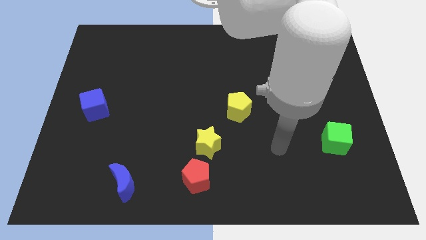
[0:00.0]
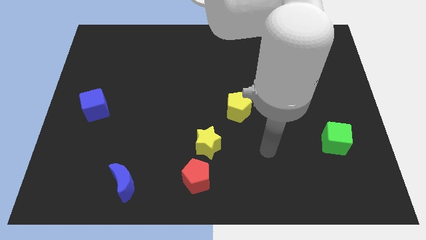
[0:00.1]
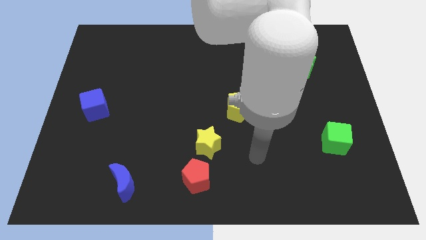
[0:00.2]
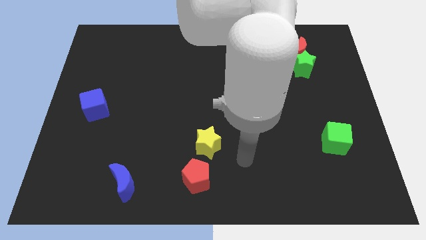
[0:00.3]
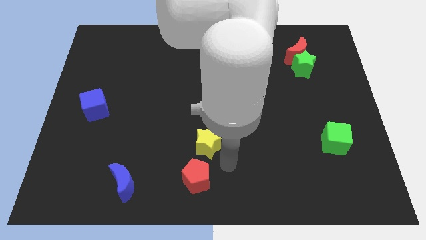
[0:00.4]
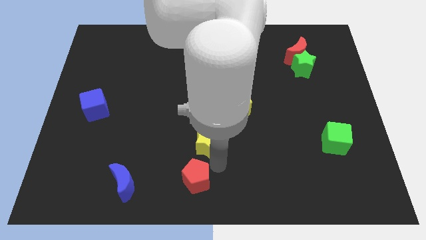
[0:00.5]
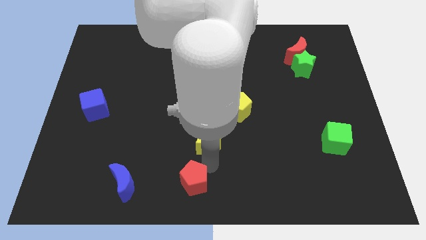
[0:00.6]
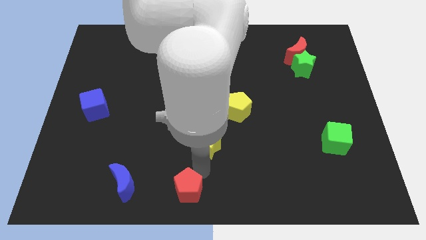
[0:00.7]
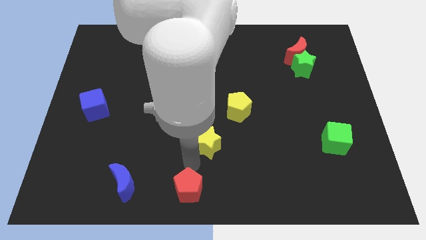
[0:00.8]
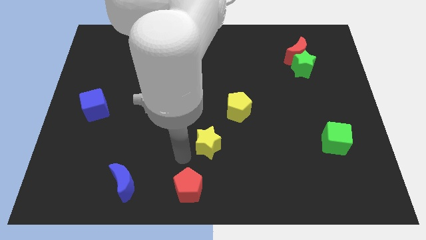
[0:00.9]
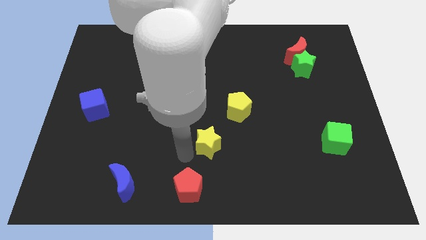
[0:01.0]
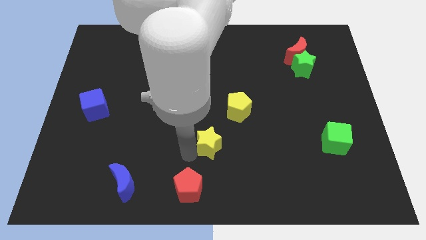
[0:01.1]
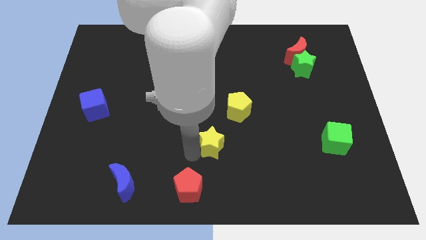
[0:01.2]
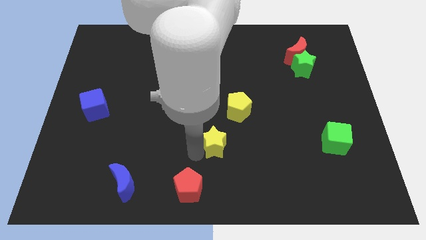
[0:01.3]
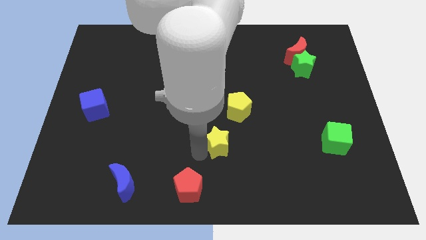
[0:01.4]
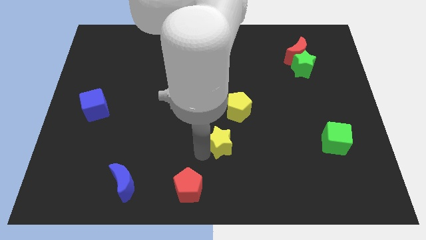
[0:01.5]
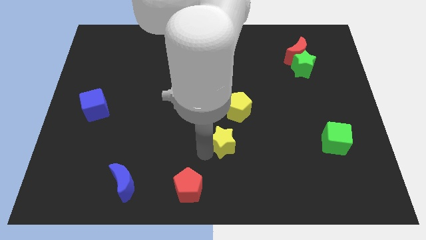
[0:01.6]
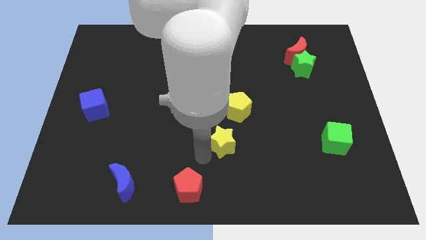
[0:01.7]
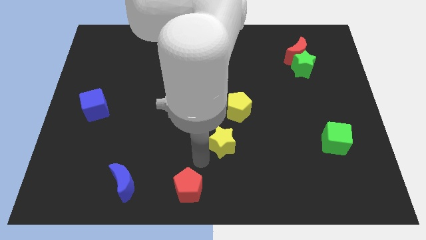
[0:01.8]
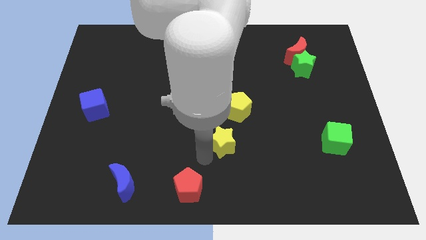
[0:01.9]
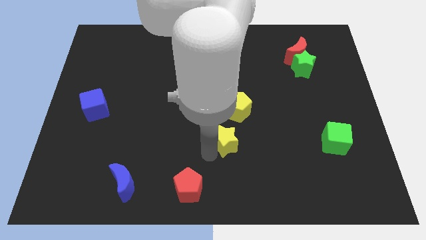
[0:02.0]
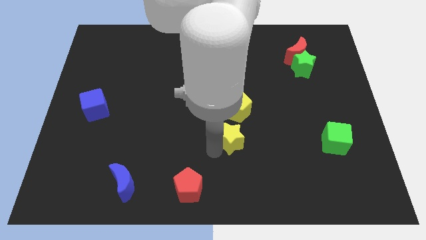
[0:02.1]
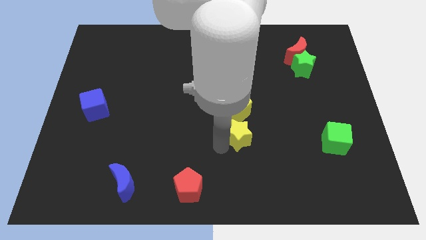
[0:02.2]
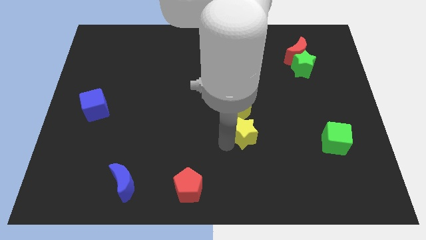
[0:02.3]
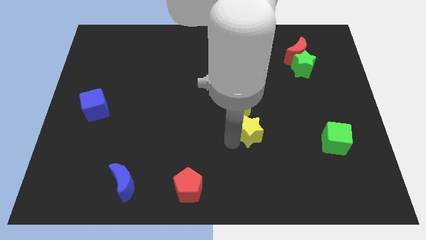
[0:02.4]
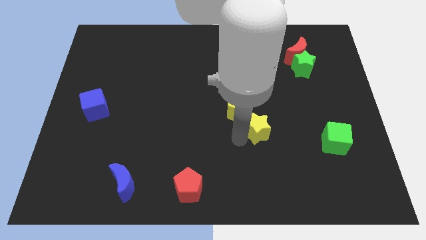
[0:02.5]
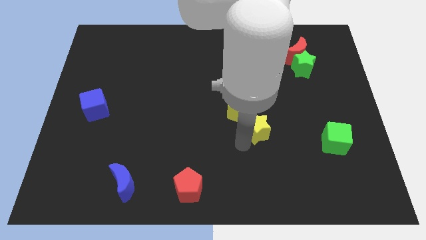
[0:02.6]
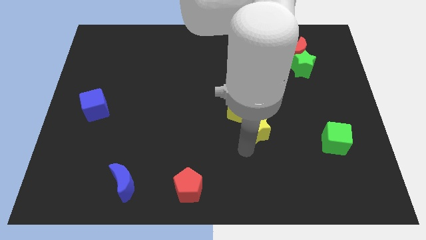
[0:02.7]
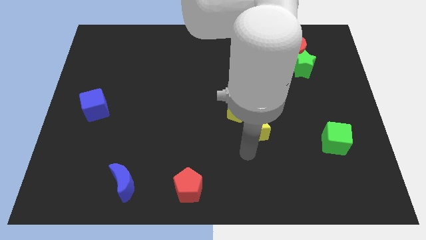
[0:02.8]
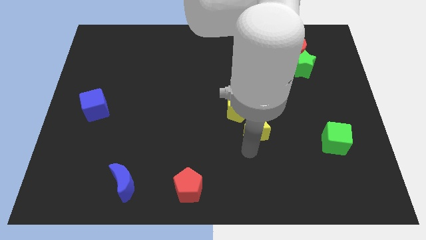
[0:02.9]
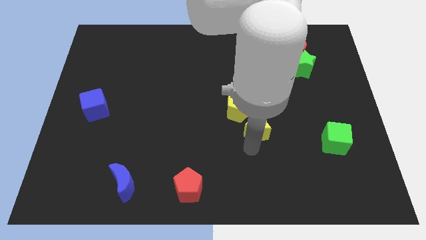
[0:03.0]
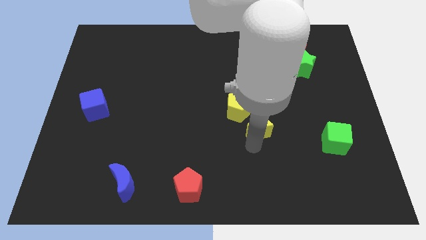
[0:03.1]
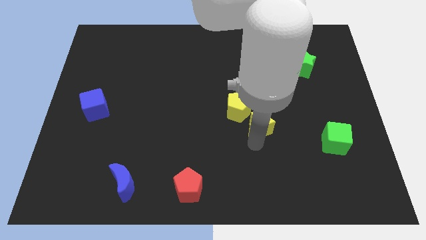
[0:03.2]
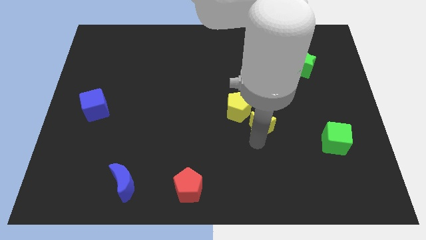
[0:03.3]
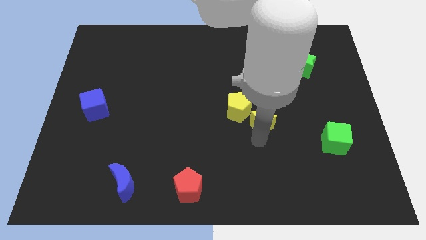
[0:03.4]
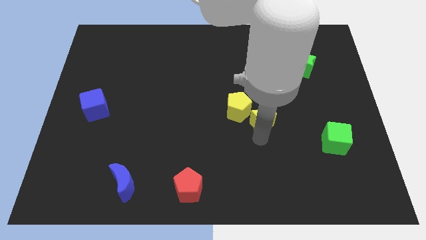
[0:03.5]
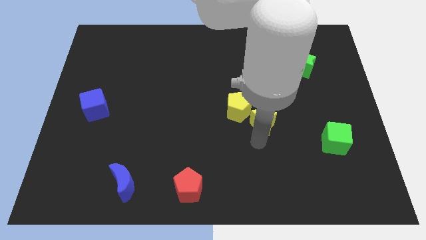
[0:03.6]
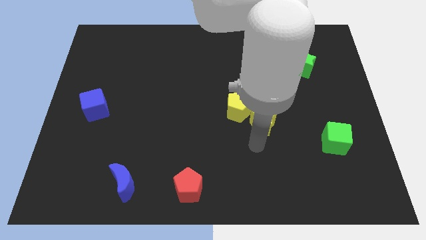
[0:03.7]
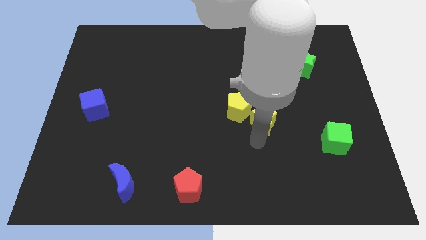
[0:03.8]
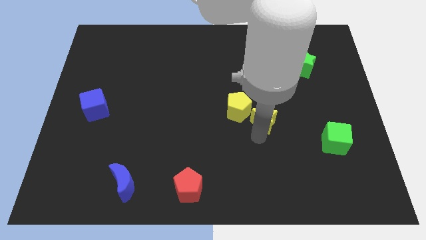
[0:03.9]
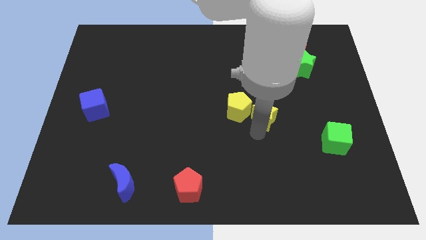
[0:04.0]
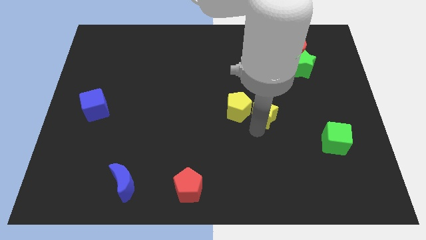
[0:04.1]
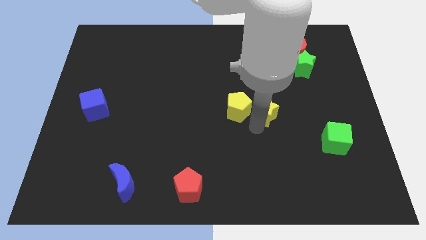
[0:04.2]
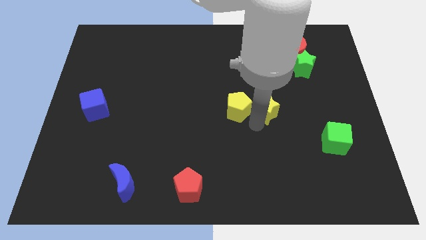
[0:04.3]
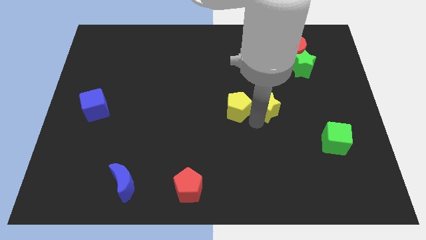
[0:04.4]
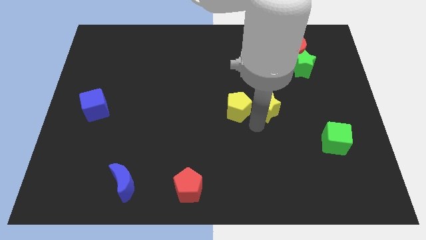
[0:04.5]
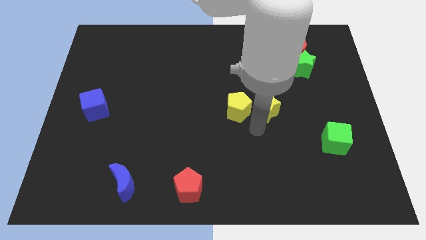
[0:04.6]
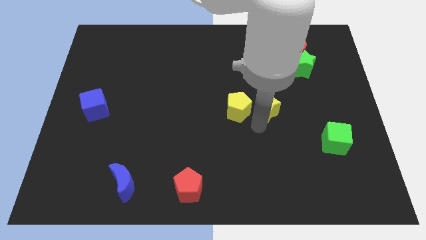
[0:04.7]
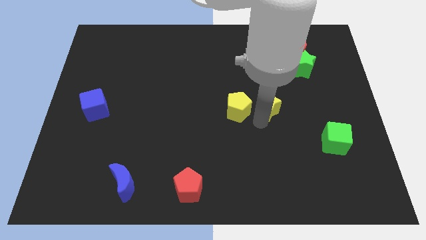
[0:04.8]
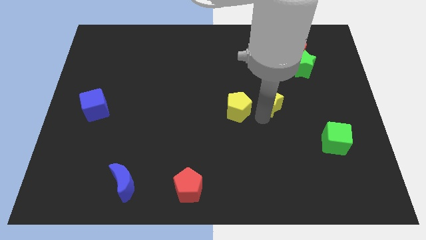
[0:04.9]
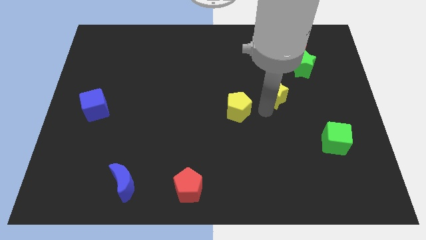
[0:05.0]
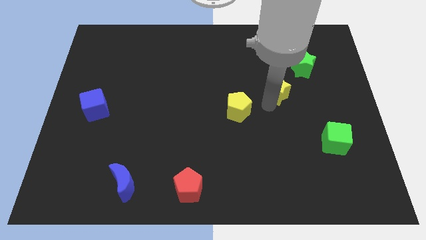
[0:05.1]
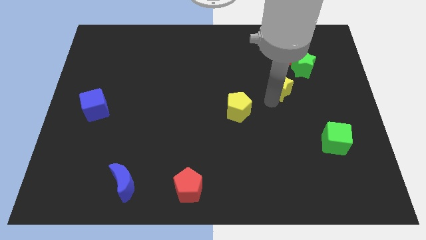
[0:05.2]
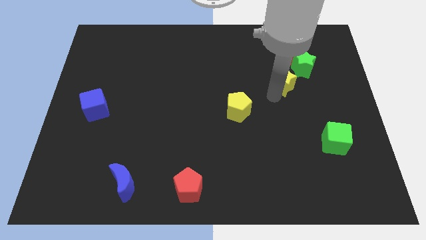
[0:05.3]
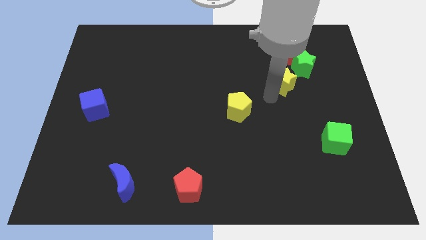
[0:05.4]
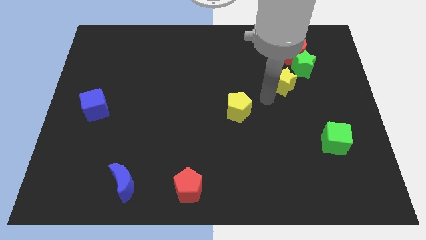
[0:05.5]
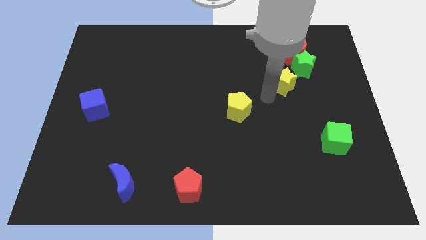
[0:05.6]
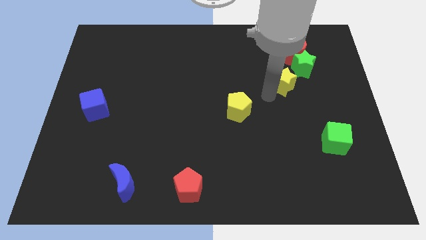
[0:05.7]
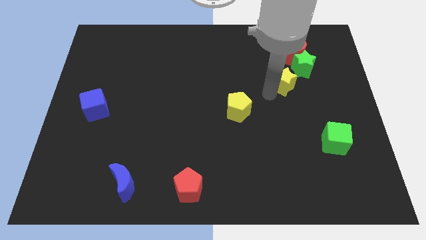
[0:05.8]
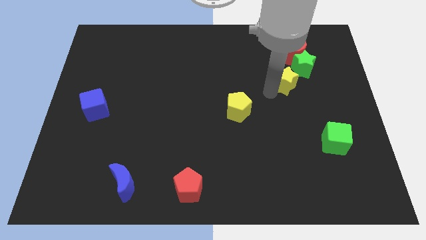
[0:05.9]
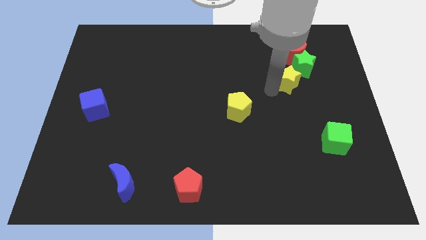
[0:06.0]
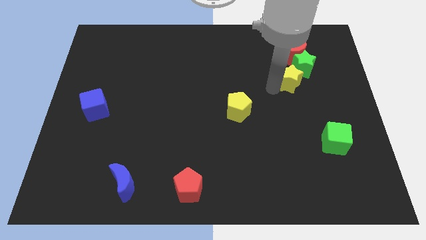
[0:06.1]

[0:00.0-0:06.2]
put the yellow star towards the green star

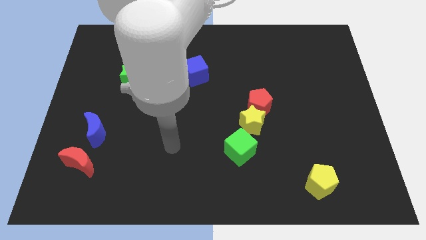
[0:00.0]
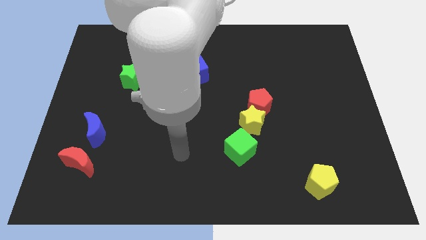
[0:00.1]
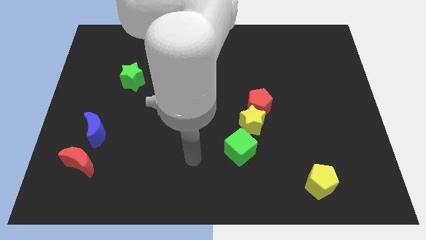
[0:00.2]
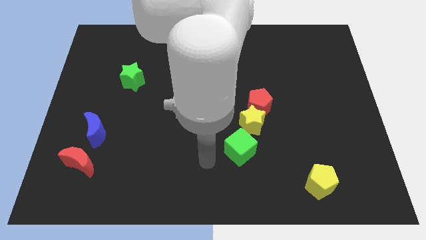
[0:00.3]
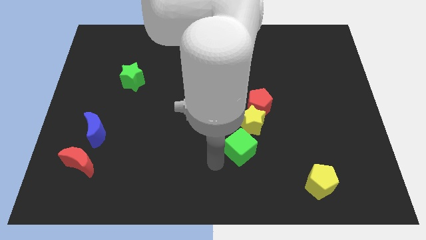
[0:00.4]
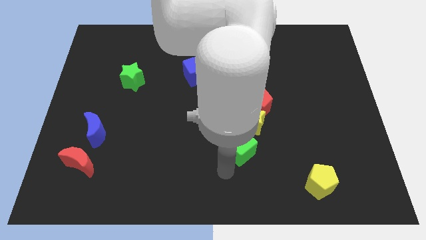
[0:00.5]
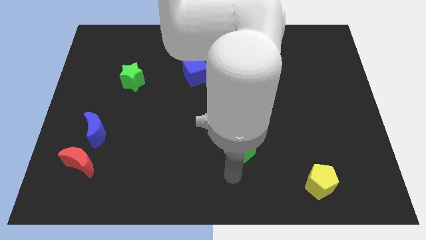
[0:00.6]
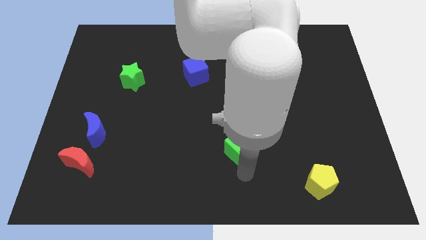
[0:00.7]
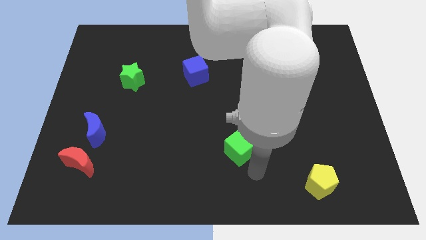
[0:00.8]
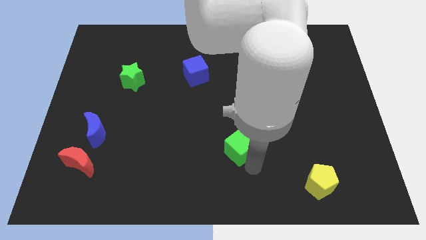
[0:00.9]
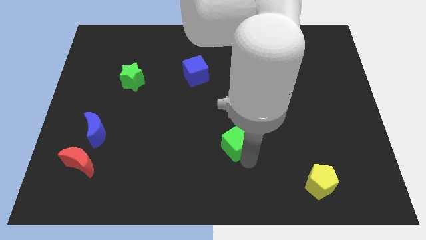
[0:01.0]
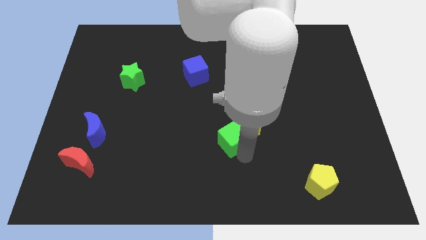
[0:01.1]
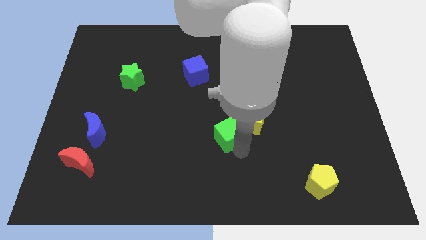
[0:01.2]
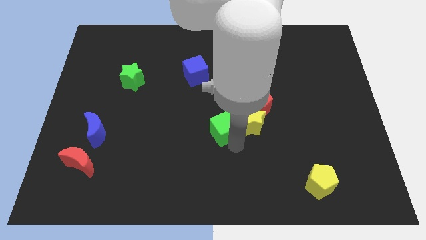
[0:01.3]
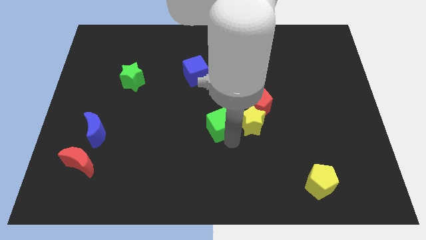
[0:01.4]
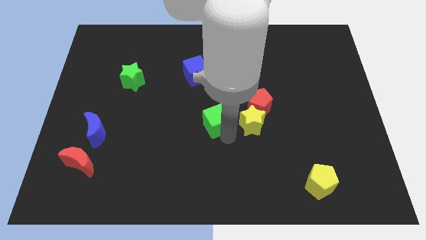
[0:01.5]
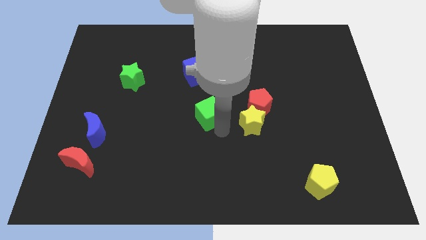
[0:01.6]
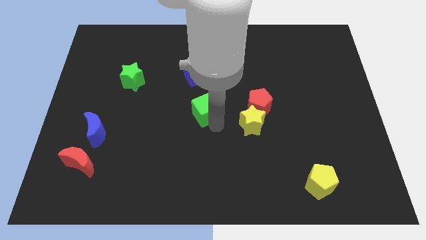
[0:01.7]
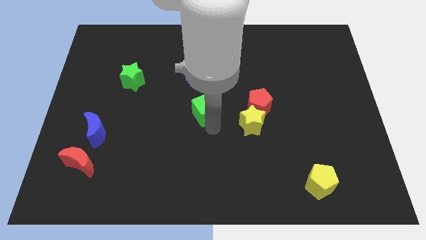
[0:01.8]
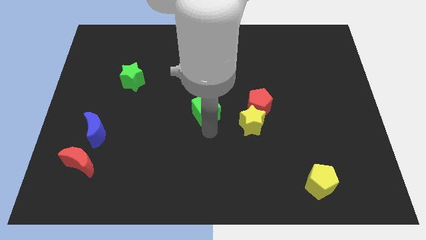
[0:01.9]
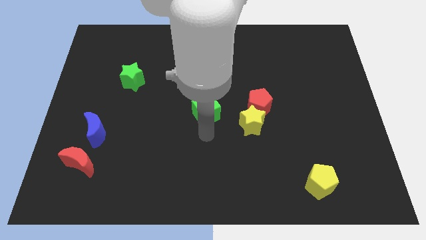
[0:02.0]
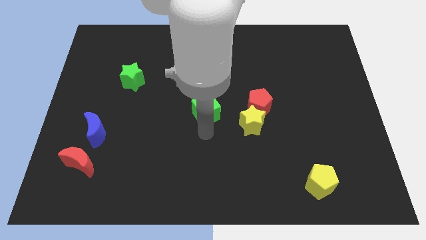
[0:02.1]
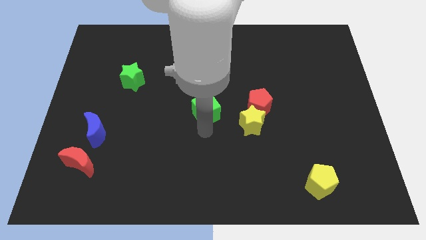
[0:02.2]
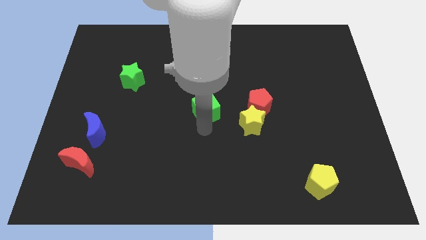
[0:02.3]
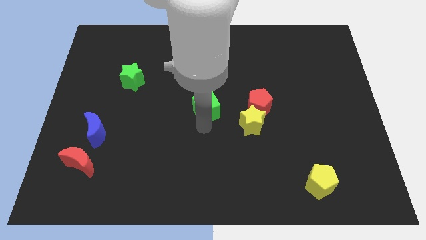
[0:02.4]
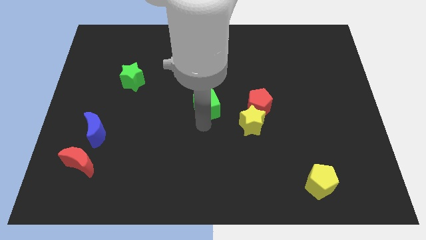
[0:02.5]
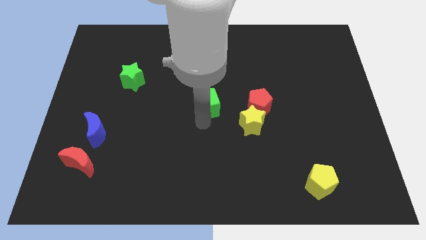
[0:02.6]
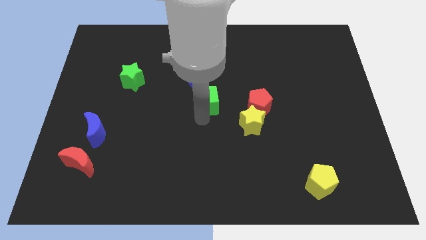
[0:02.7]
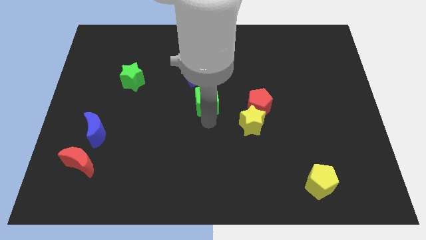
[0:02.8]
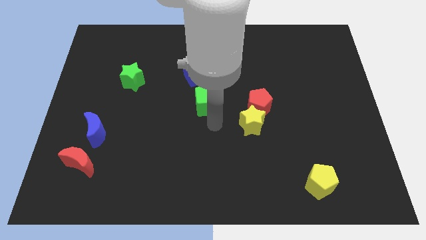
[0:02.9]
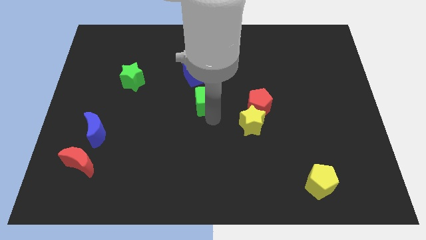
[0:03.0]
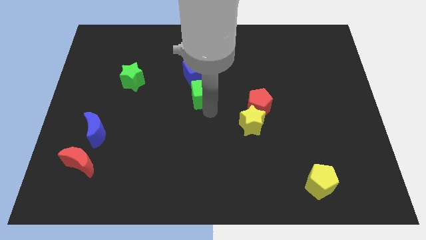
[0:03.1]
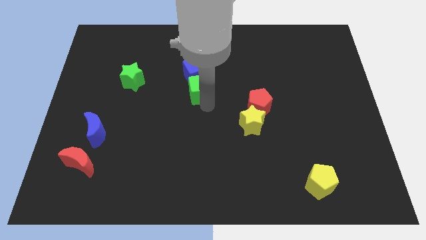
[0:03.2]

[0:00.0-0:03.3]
slide the green cube to the blue cube
